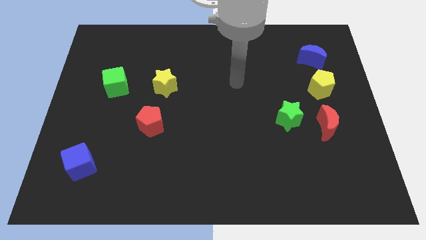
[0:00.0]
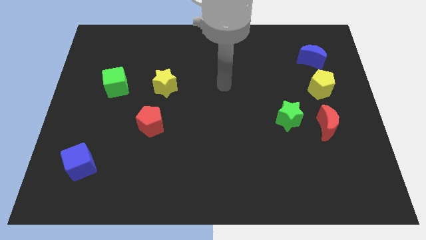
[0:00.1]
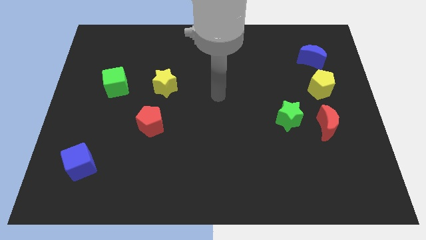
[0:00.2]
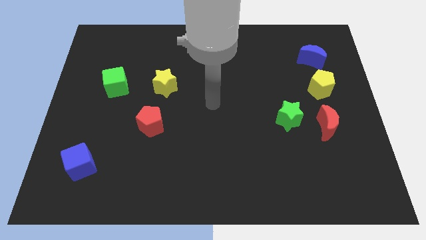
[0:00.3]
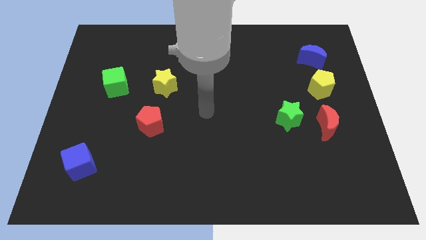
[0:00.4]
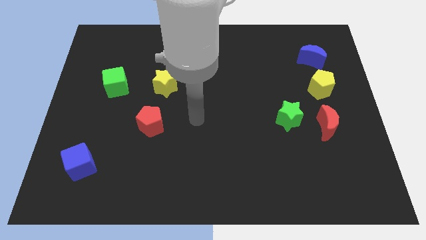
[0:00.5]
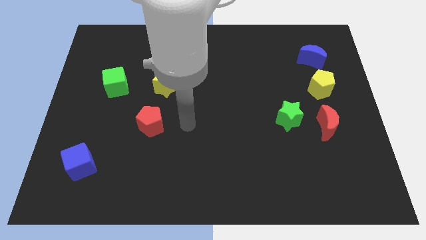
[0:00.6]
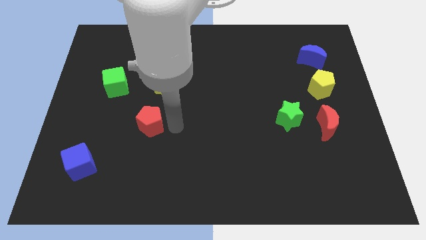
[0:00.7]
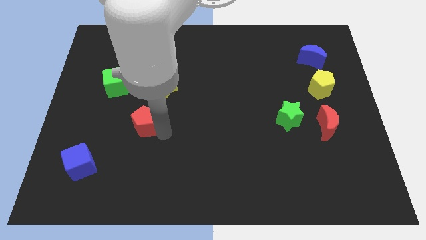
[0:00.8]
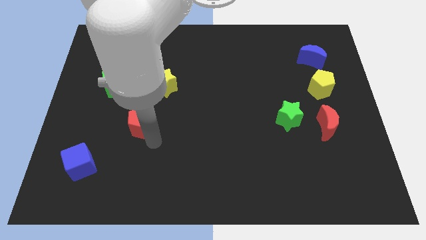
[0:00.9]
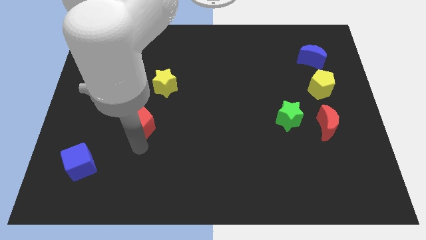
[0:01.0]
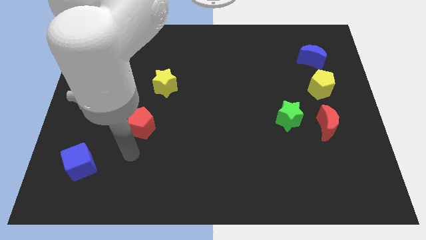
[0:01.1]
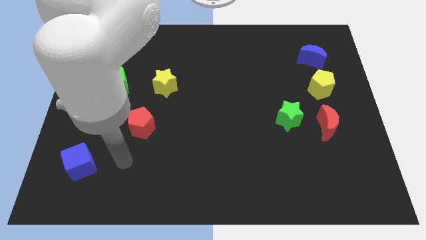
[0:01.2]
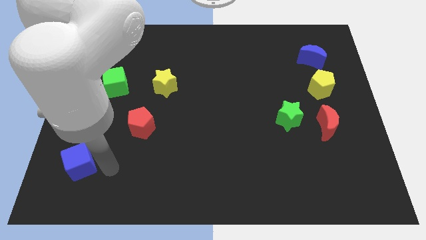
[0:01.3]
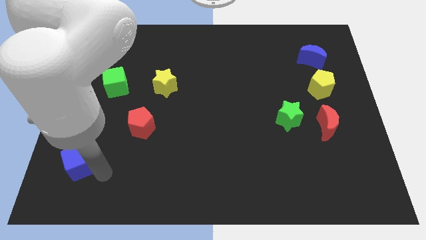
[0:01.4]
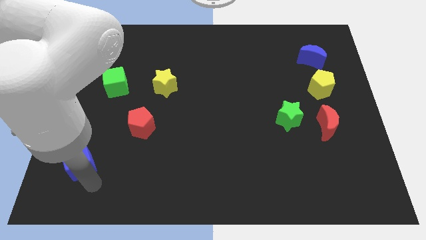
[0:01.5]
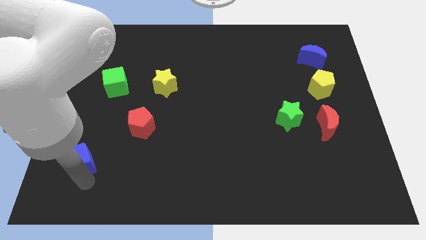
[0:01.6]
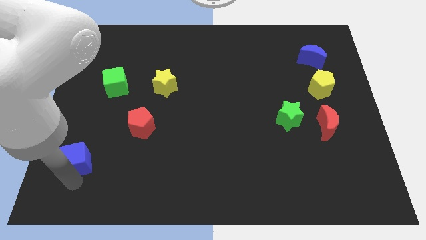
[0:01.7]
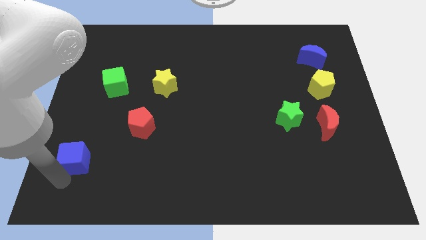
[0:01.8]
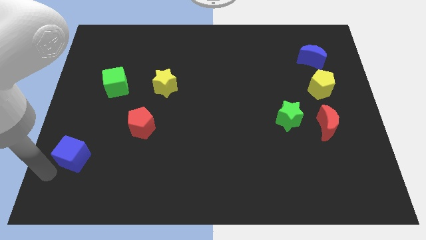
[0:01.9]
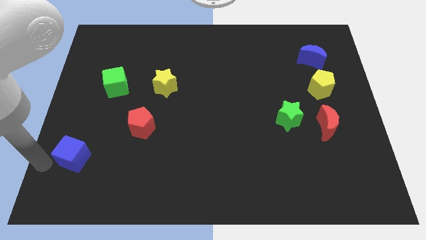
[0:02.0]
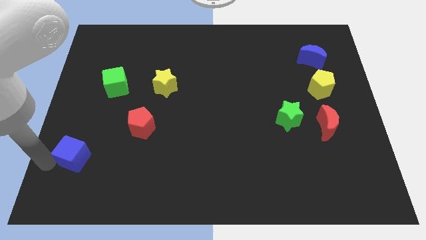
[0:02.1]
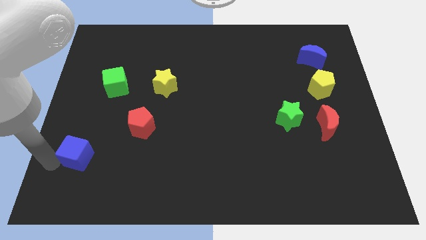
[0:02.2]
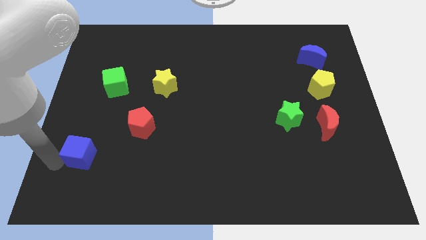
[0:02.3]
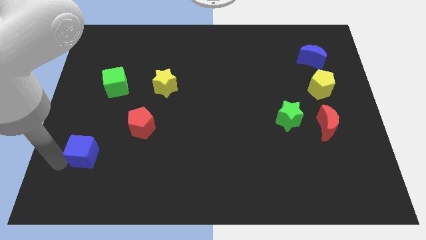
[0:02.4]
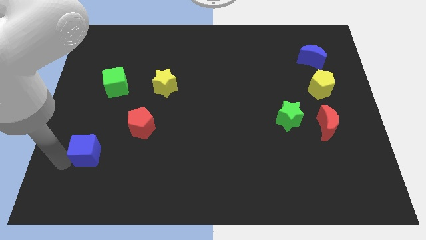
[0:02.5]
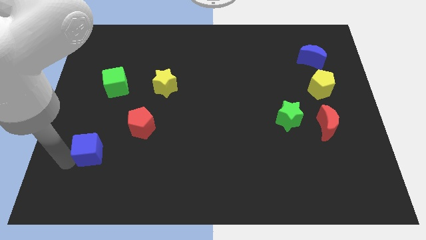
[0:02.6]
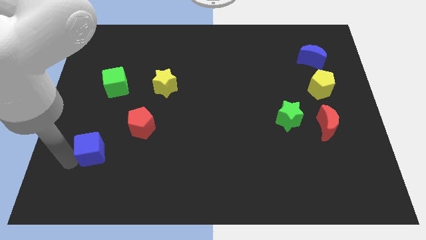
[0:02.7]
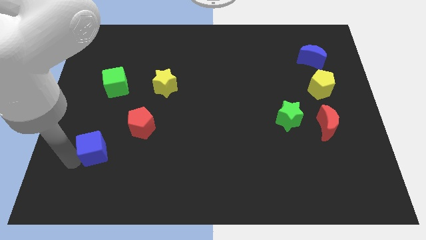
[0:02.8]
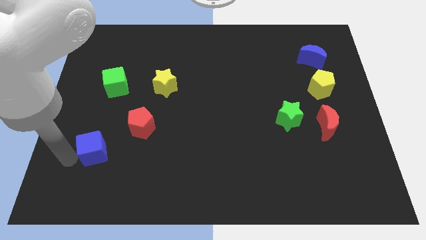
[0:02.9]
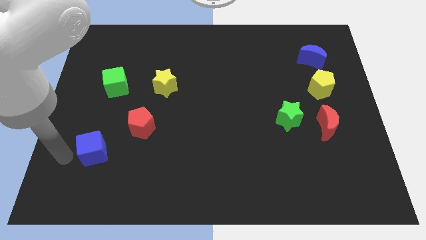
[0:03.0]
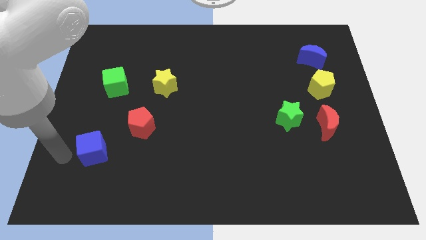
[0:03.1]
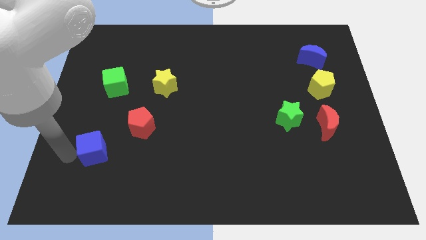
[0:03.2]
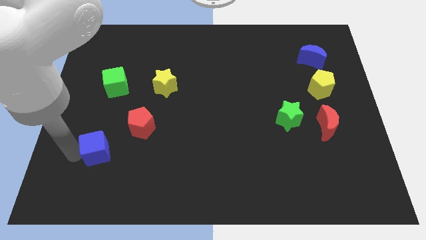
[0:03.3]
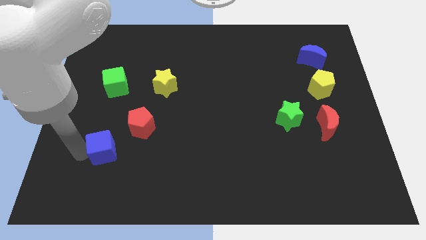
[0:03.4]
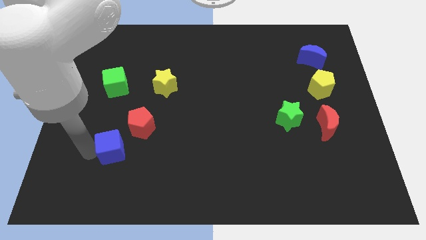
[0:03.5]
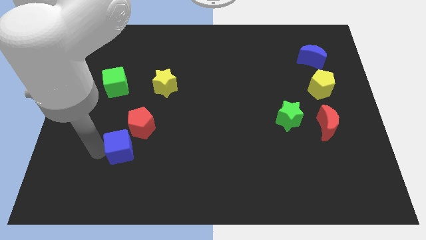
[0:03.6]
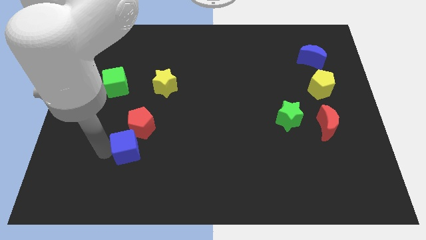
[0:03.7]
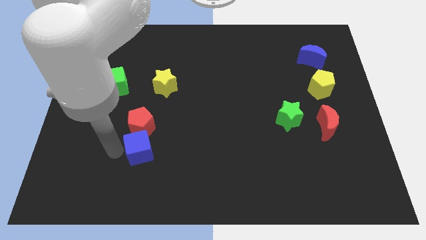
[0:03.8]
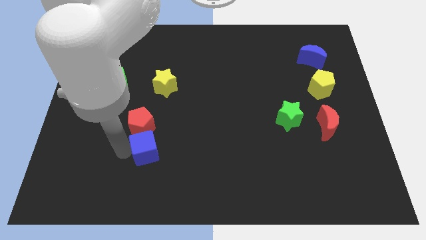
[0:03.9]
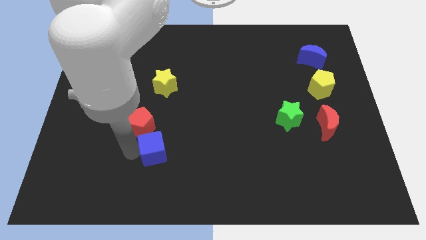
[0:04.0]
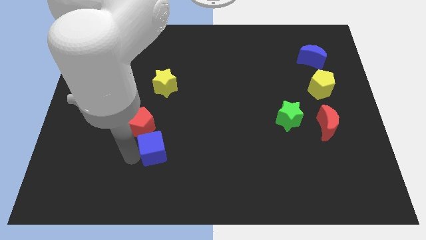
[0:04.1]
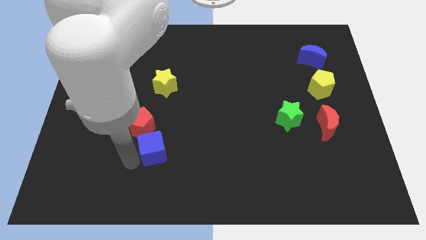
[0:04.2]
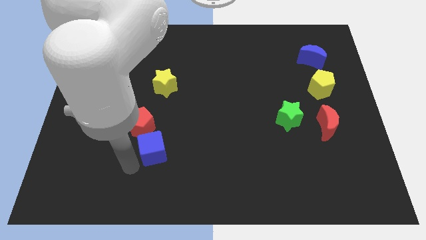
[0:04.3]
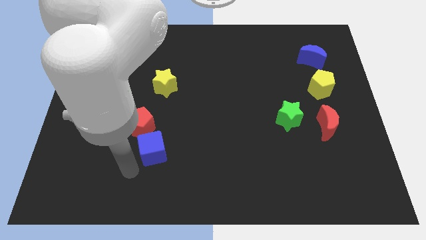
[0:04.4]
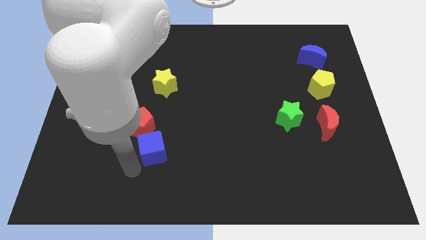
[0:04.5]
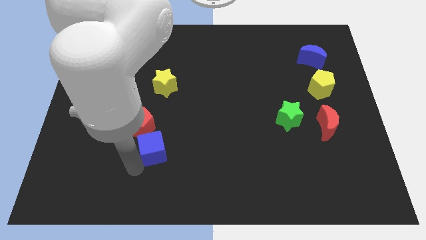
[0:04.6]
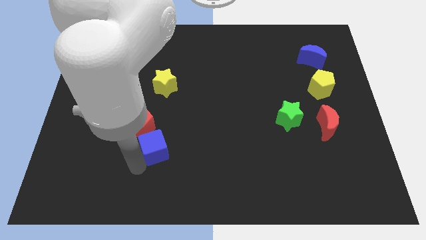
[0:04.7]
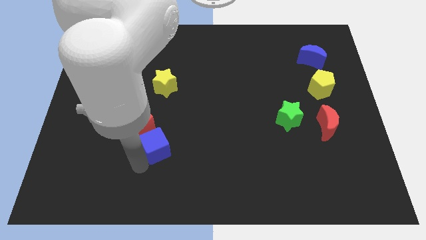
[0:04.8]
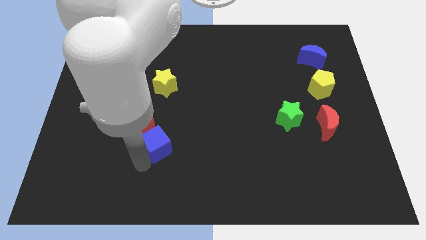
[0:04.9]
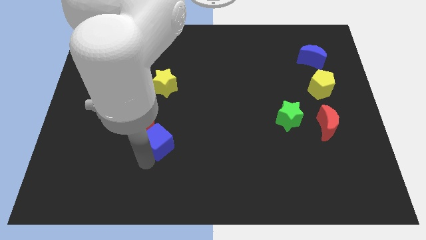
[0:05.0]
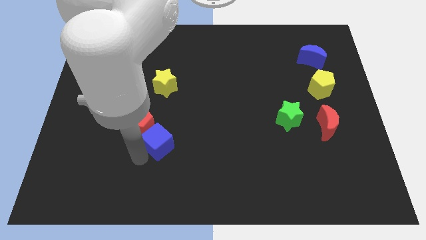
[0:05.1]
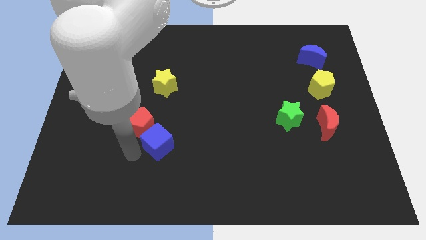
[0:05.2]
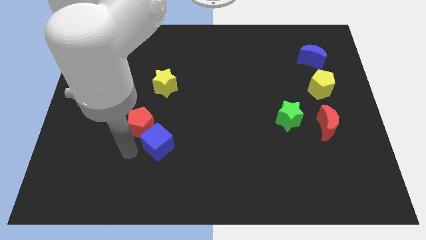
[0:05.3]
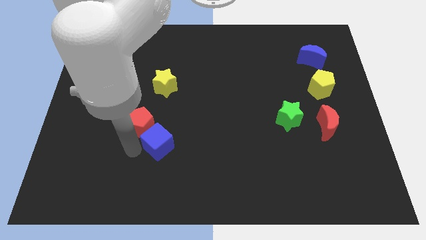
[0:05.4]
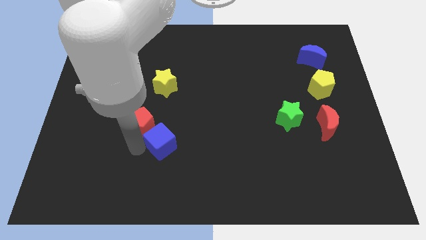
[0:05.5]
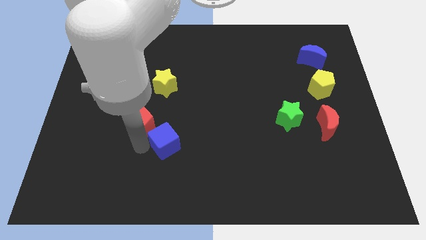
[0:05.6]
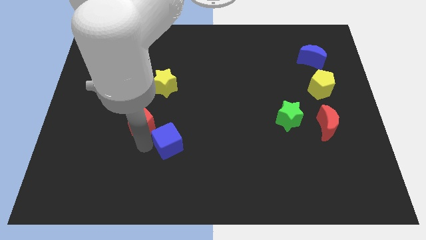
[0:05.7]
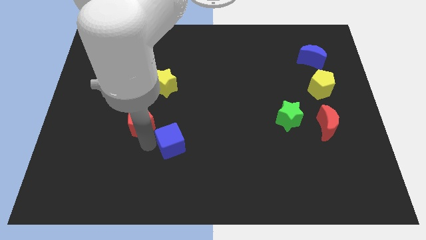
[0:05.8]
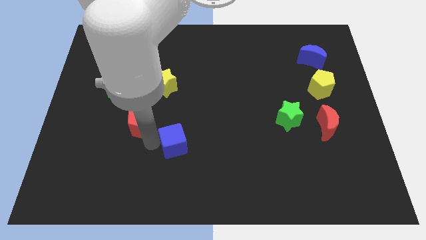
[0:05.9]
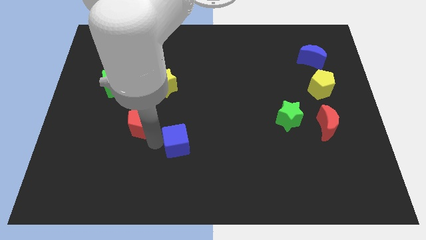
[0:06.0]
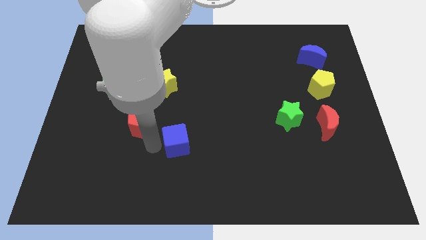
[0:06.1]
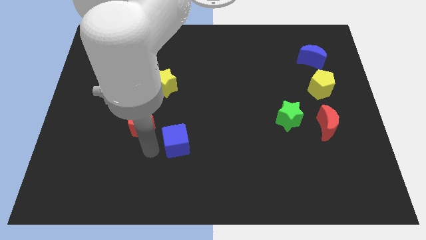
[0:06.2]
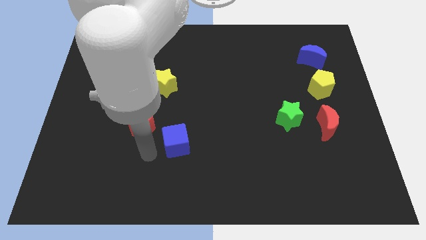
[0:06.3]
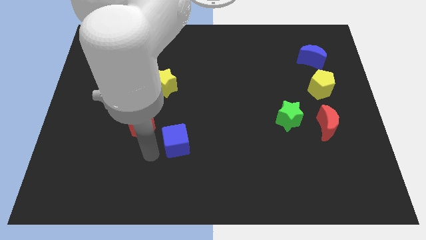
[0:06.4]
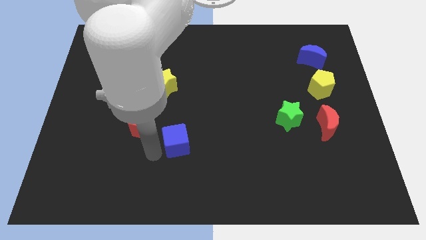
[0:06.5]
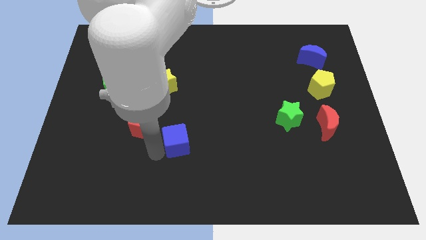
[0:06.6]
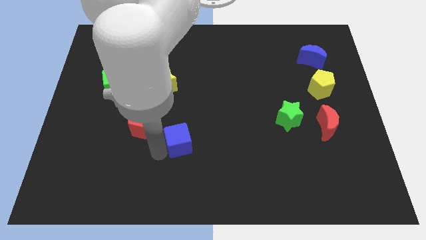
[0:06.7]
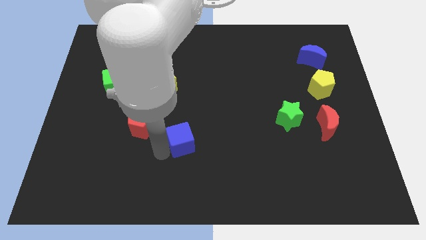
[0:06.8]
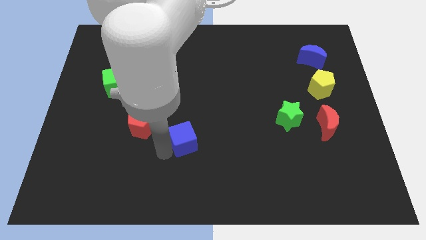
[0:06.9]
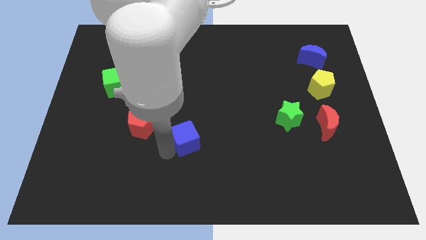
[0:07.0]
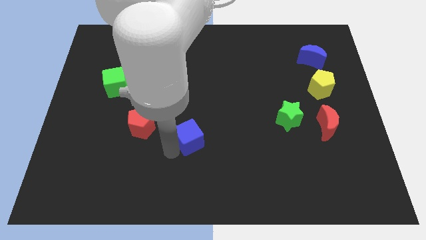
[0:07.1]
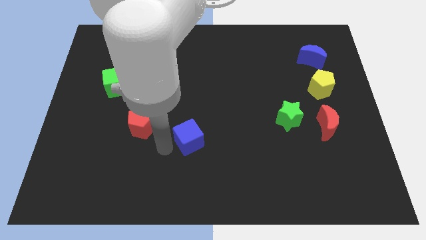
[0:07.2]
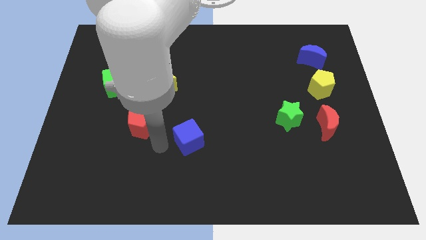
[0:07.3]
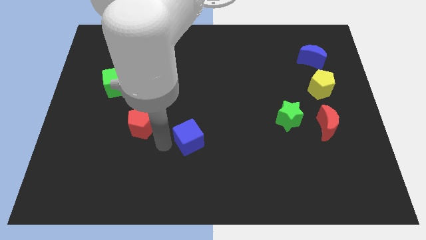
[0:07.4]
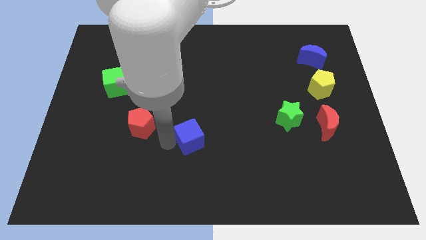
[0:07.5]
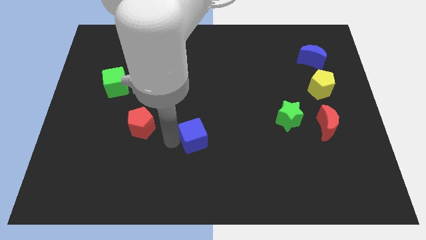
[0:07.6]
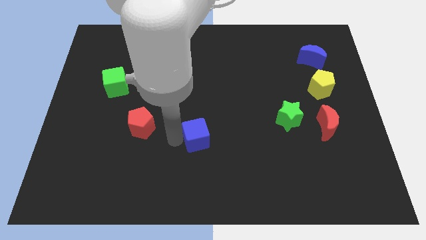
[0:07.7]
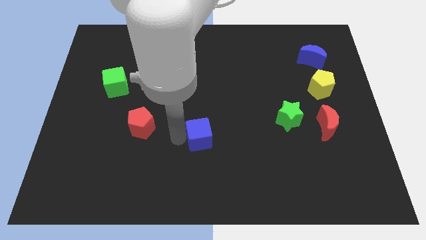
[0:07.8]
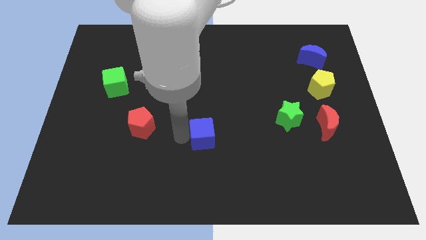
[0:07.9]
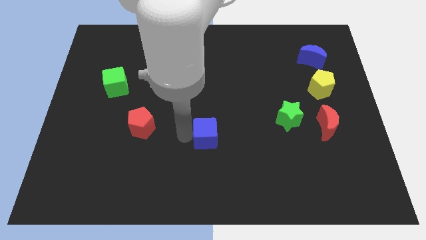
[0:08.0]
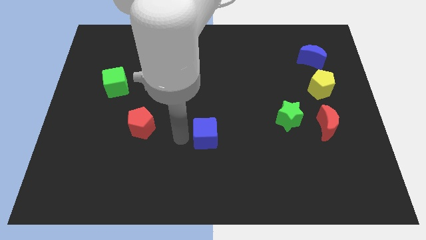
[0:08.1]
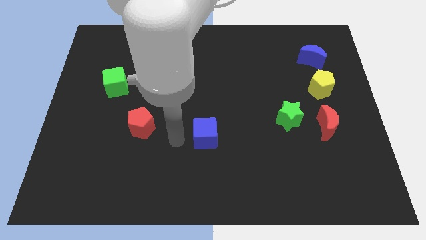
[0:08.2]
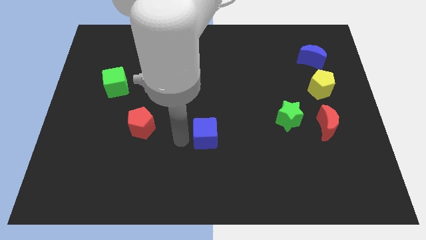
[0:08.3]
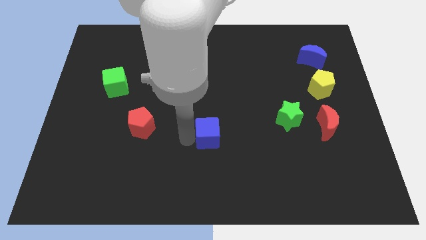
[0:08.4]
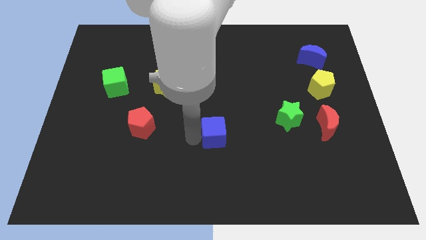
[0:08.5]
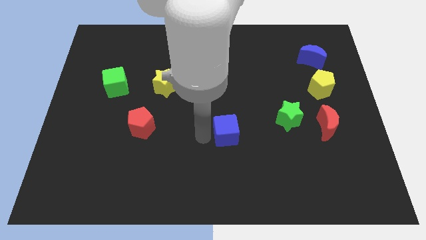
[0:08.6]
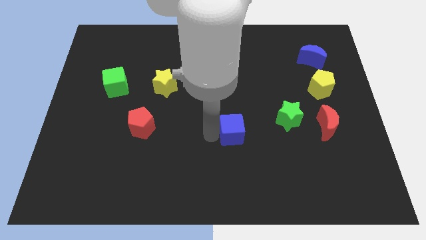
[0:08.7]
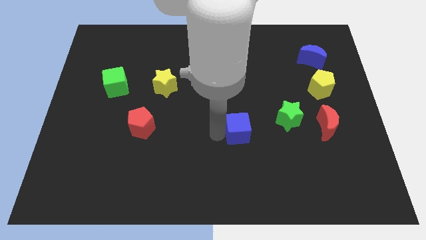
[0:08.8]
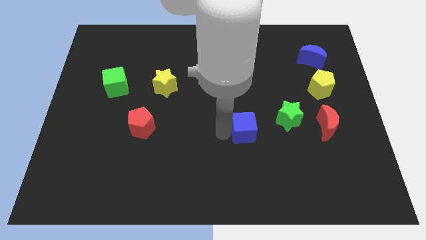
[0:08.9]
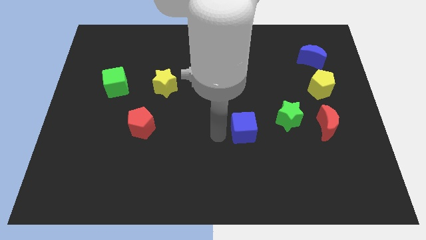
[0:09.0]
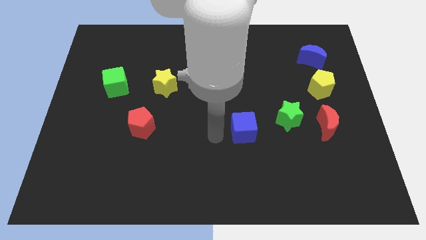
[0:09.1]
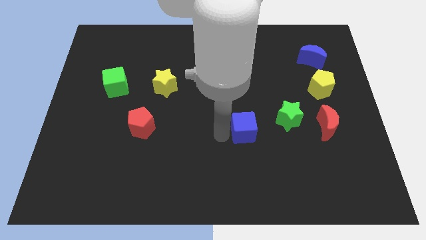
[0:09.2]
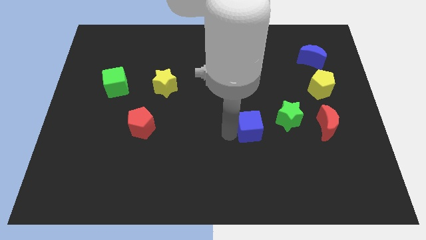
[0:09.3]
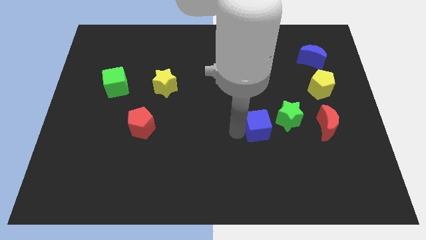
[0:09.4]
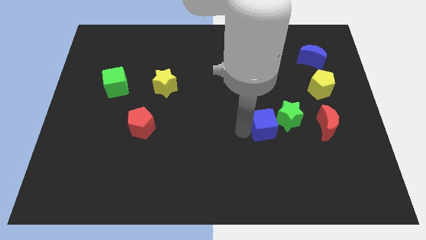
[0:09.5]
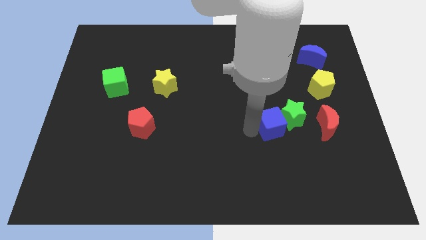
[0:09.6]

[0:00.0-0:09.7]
move the blue cube close to the green star
